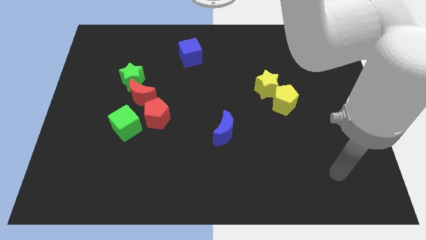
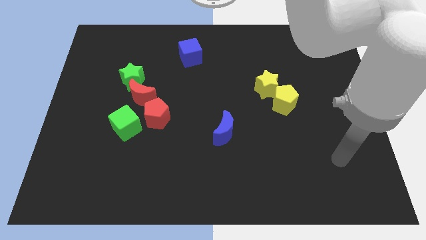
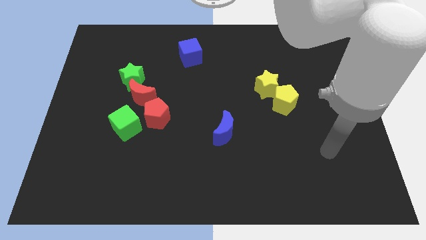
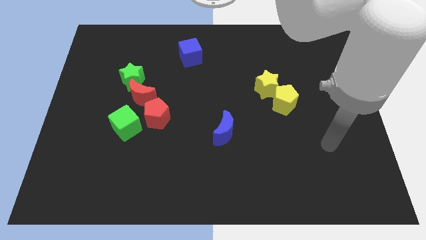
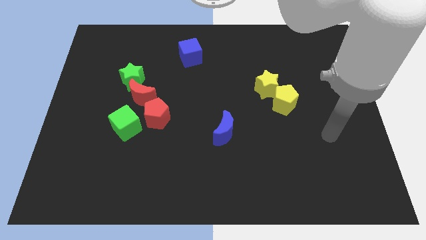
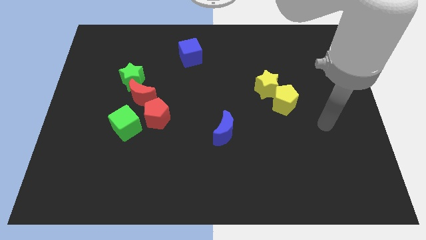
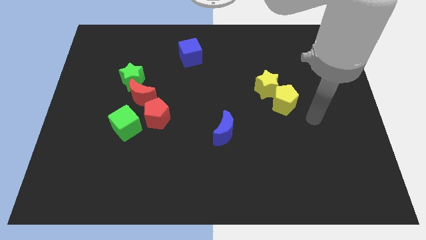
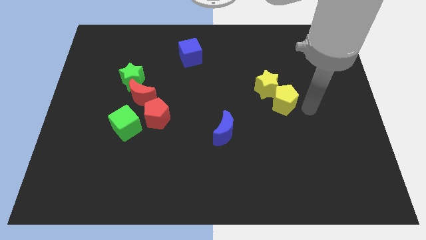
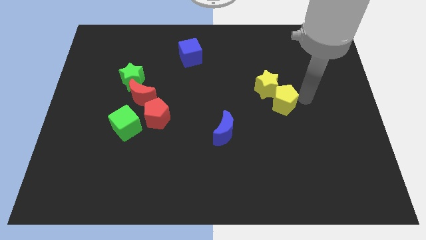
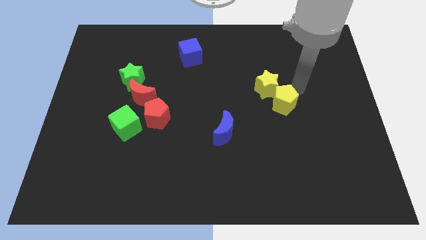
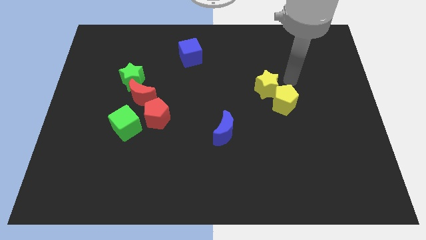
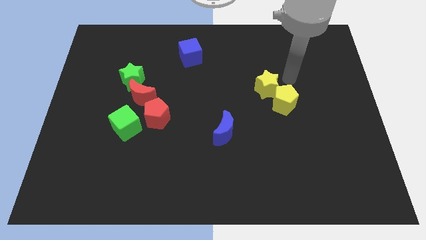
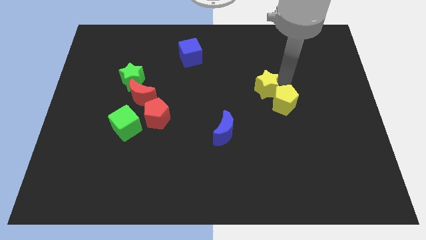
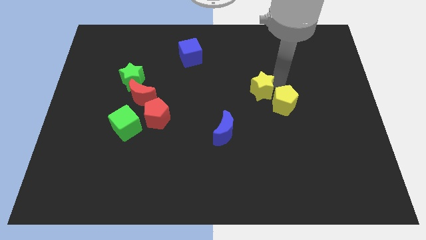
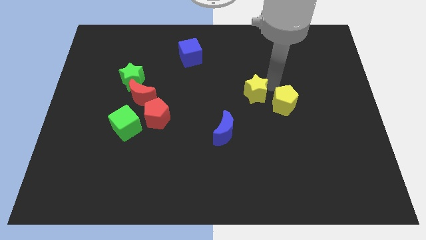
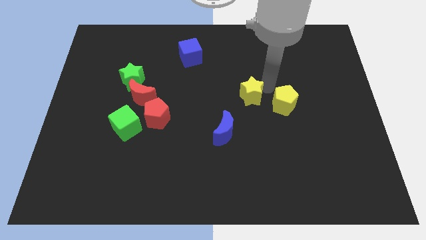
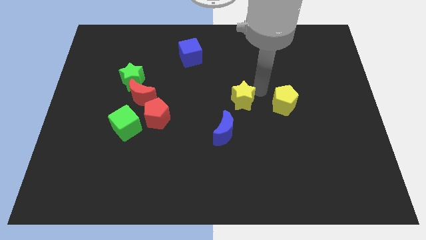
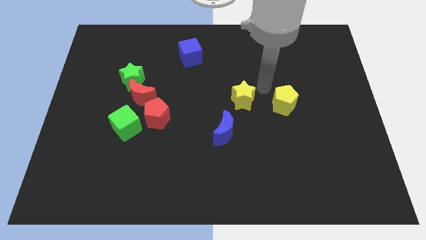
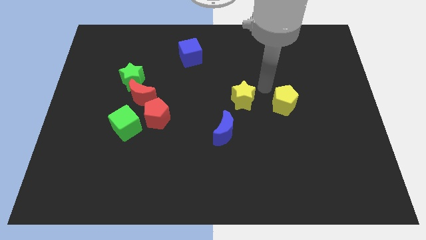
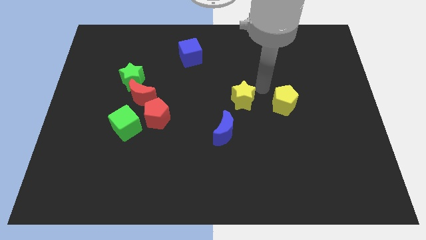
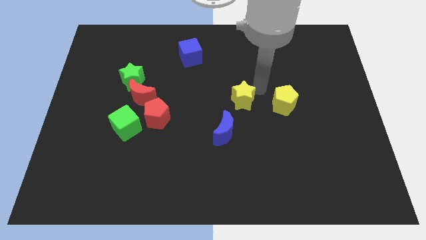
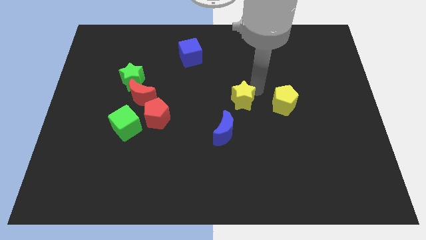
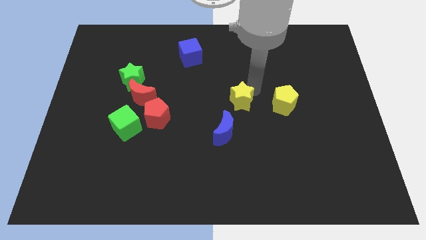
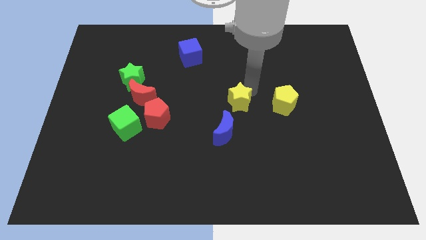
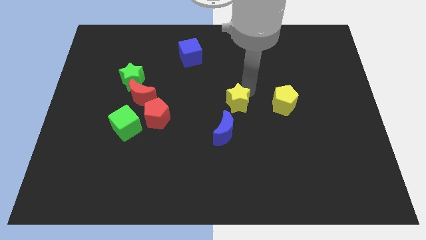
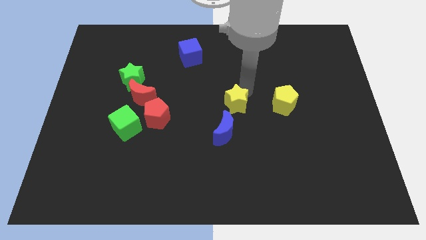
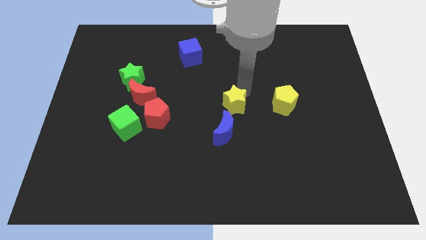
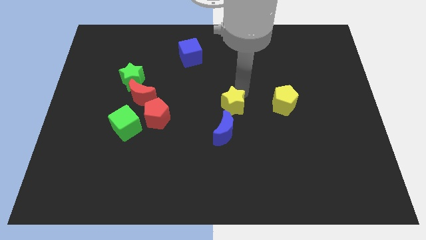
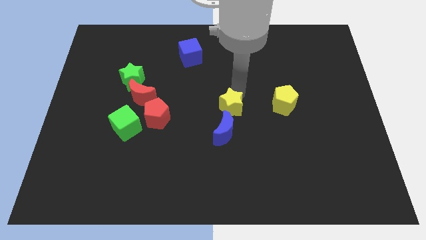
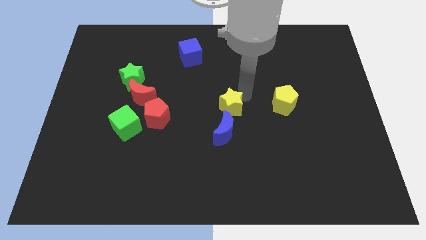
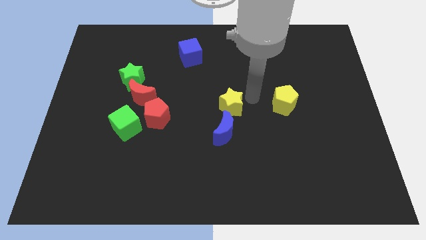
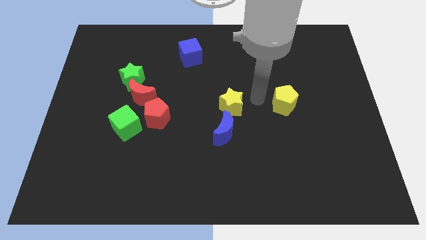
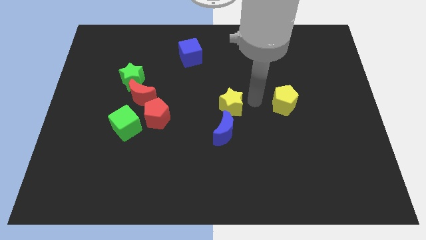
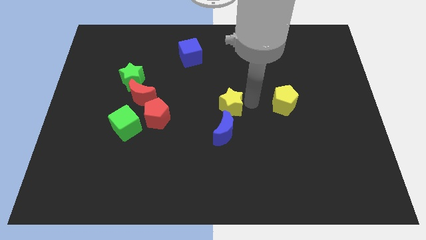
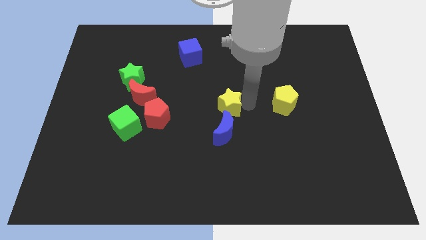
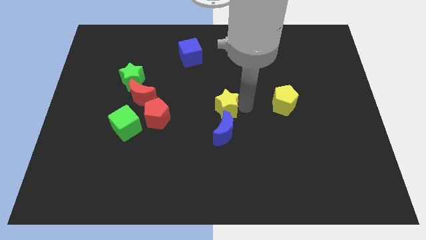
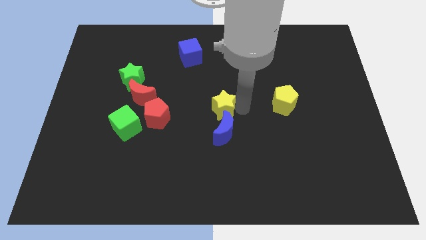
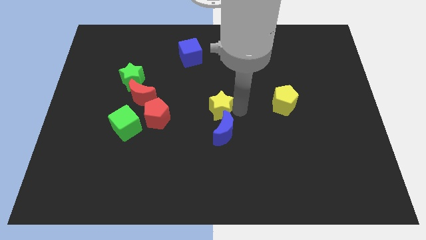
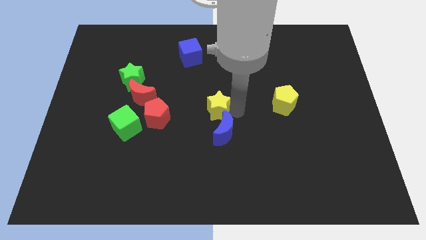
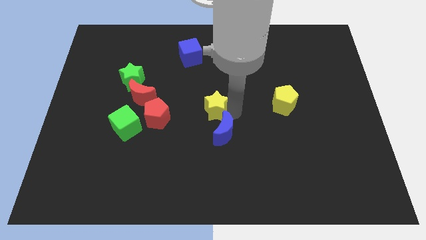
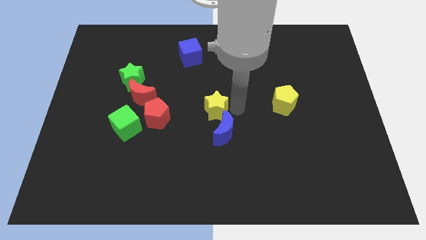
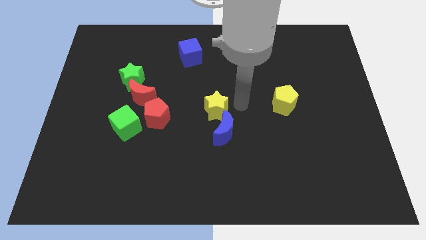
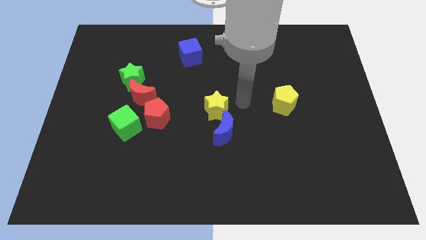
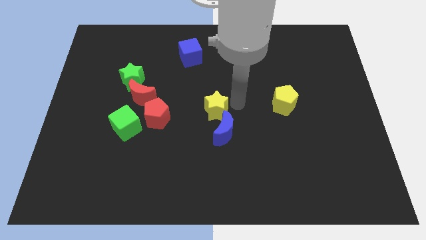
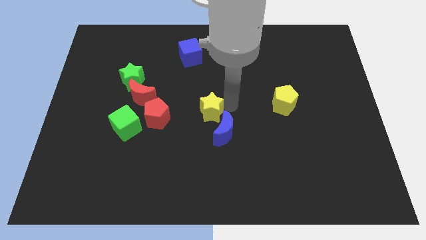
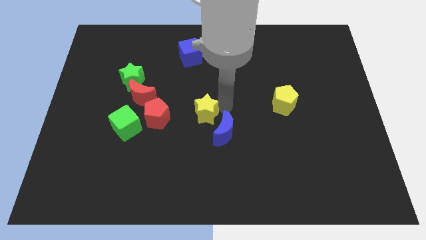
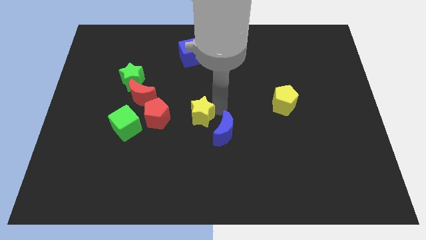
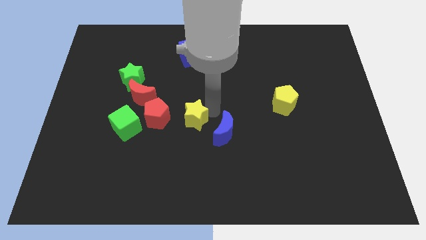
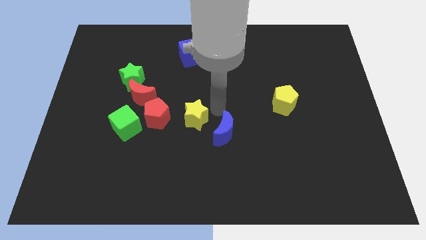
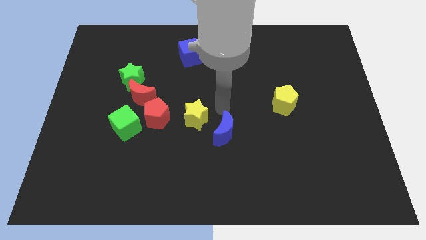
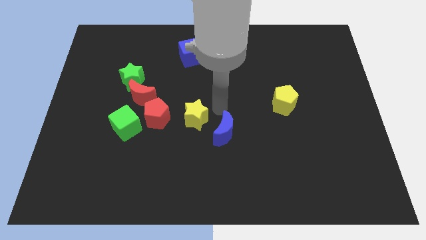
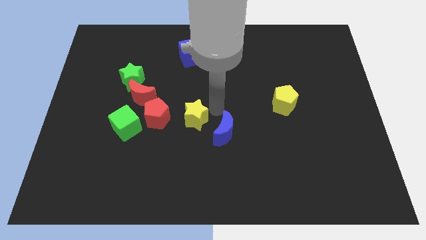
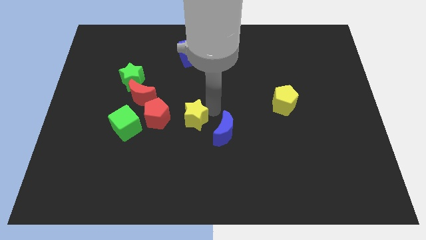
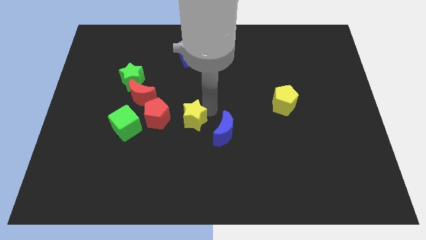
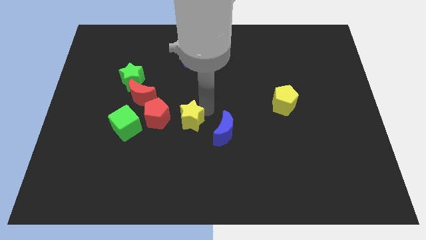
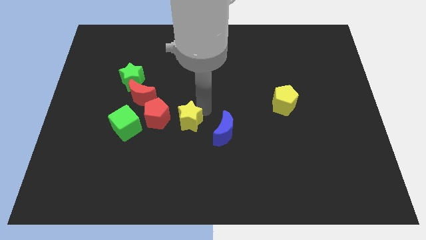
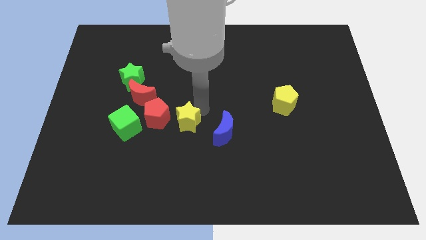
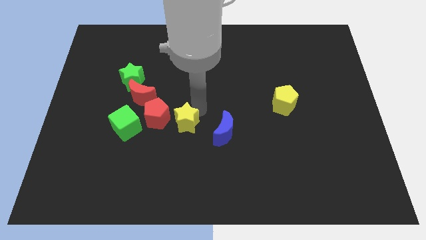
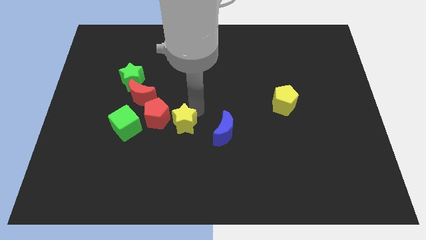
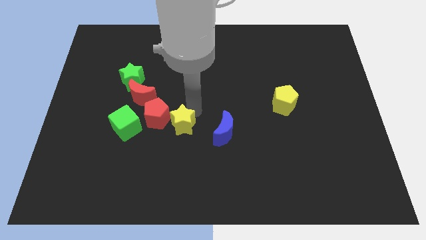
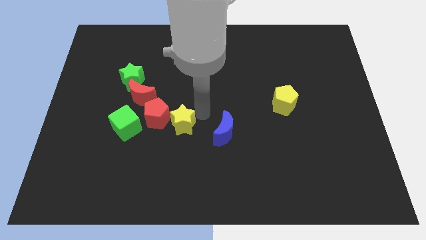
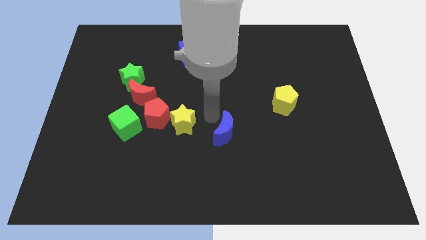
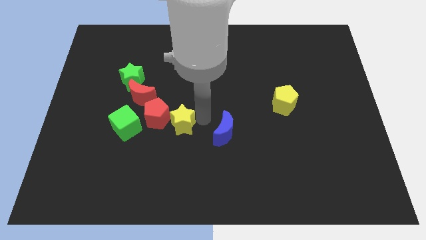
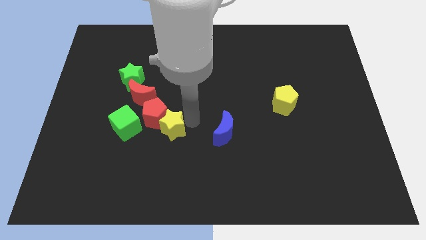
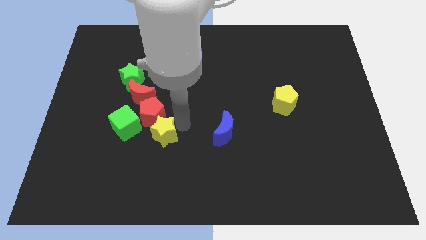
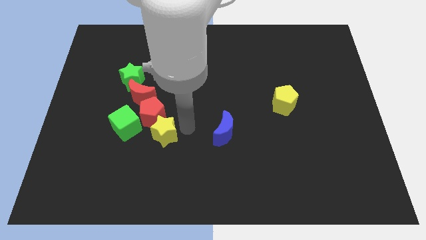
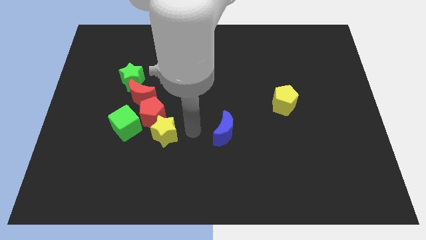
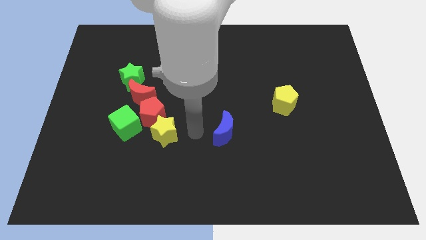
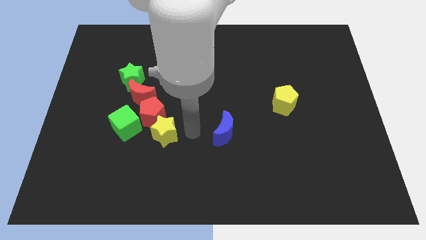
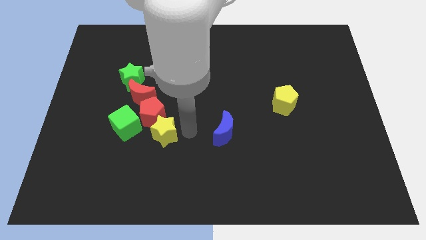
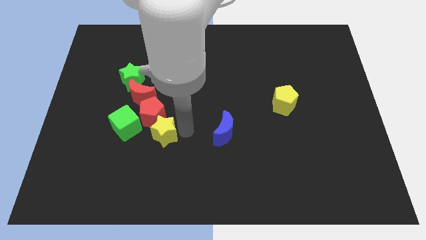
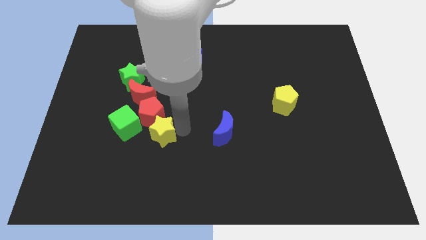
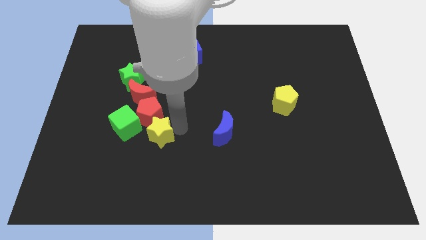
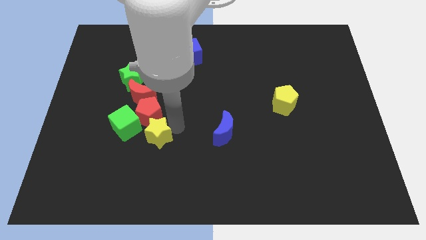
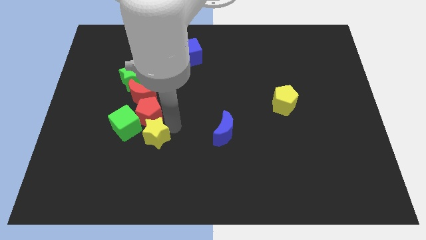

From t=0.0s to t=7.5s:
slide the yellow star to the bottom of the red moon

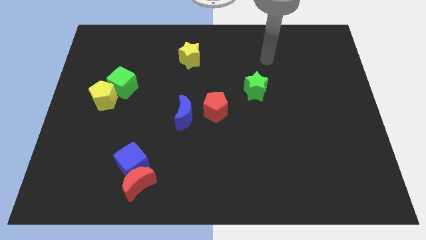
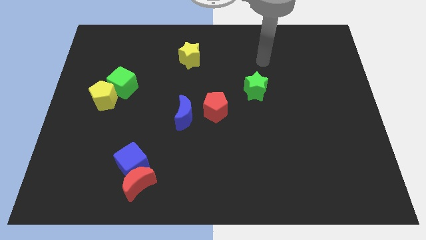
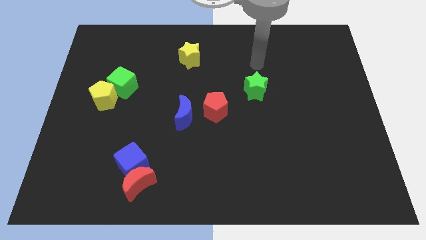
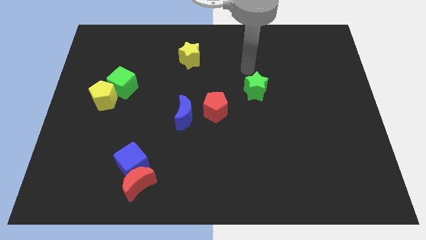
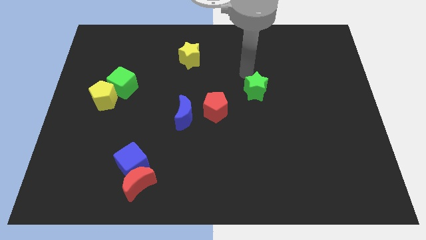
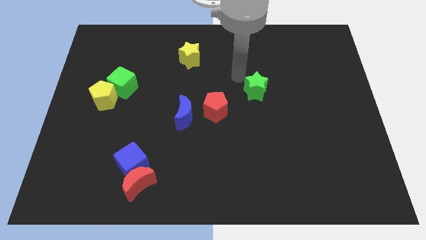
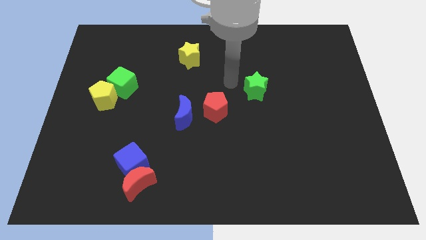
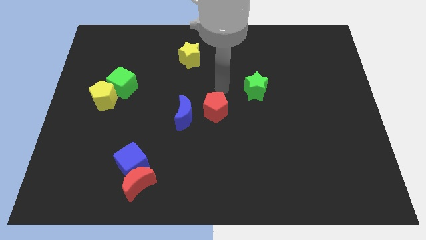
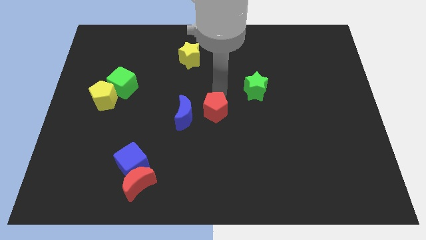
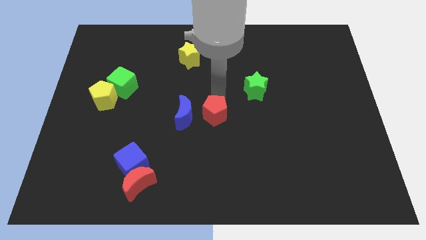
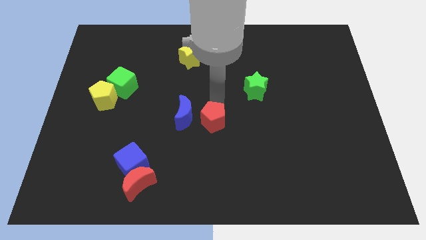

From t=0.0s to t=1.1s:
push the red pentagon to the bottom right side of the blue moon
